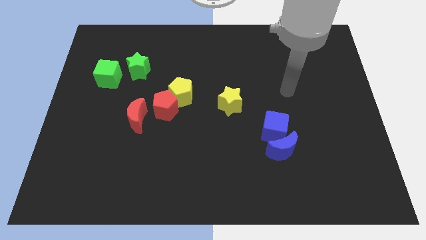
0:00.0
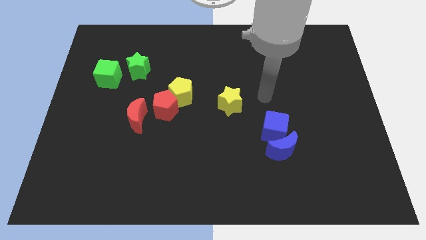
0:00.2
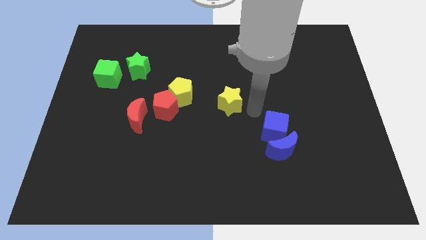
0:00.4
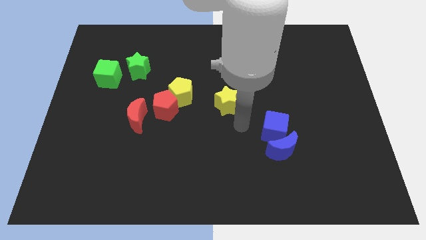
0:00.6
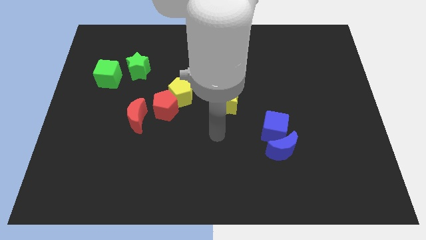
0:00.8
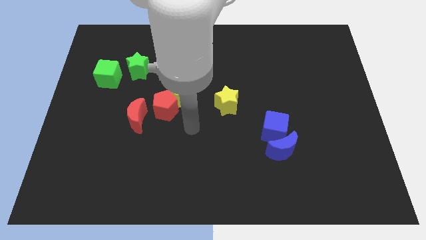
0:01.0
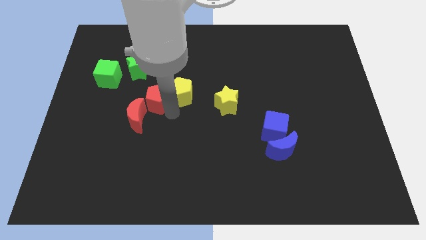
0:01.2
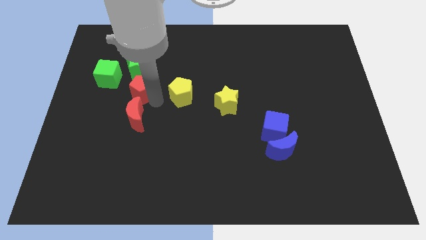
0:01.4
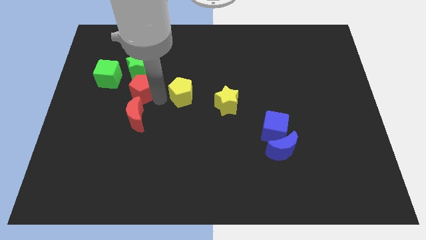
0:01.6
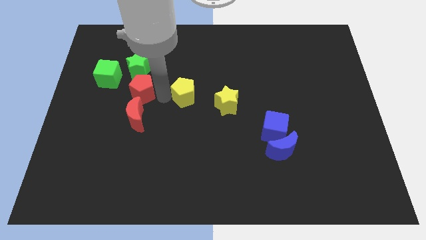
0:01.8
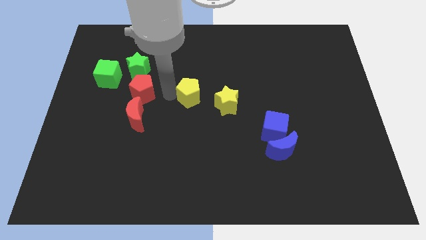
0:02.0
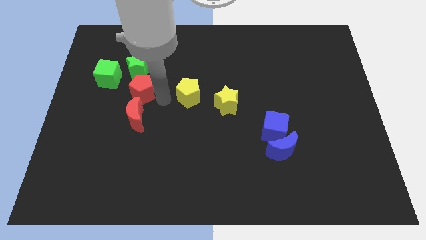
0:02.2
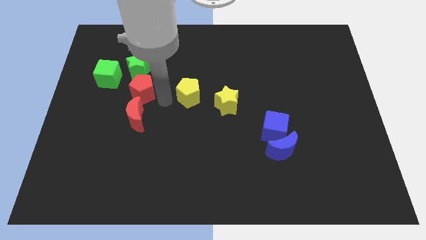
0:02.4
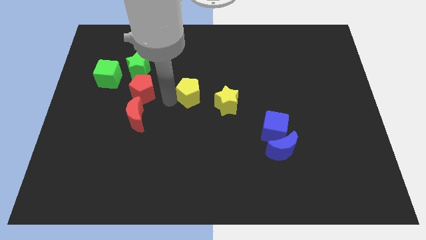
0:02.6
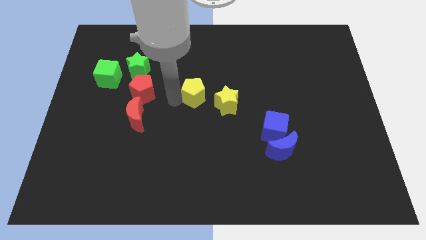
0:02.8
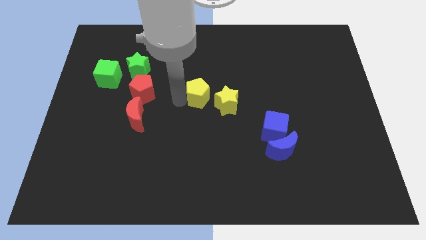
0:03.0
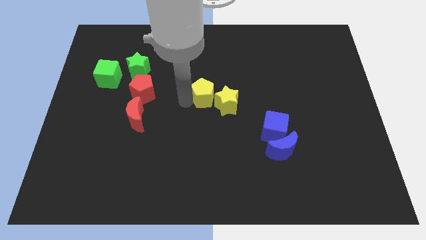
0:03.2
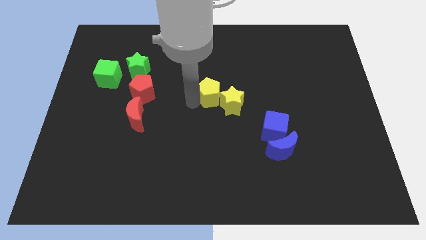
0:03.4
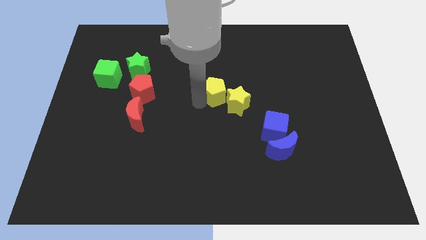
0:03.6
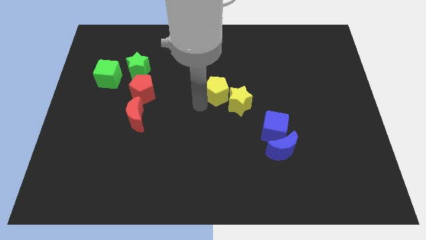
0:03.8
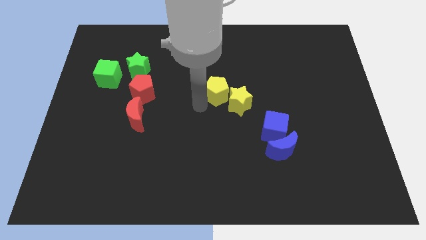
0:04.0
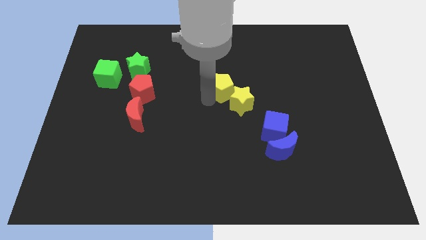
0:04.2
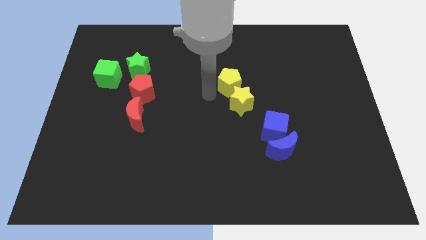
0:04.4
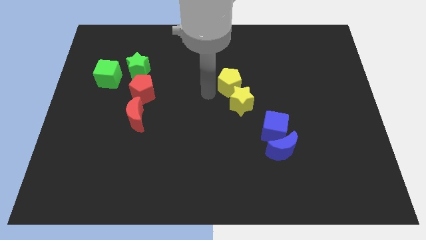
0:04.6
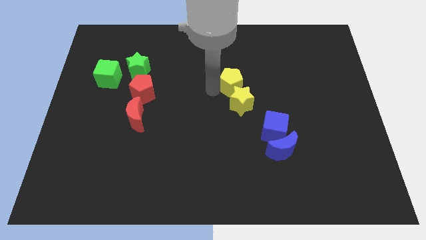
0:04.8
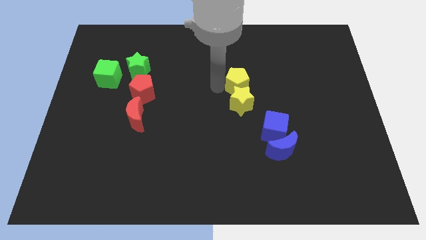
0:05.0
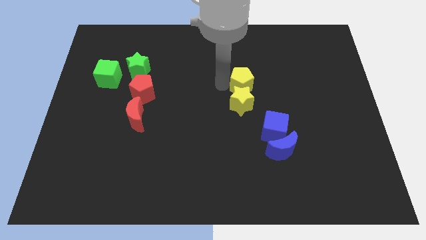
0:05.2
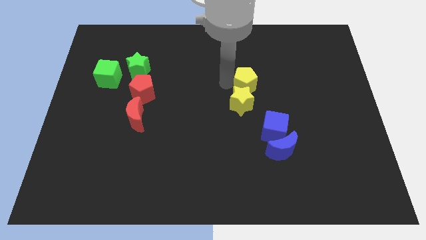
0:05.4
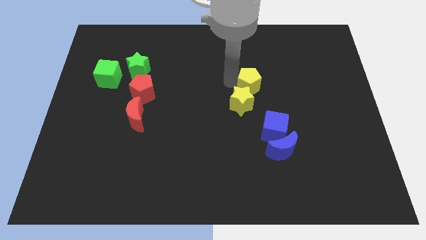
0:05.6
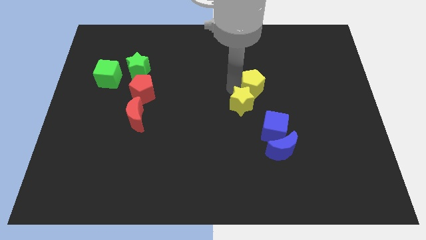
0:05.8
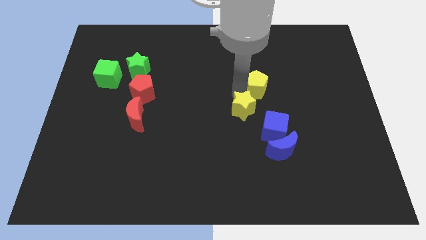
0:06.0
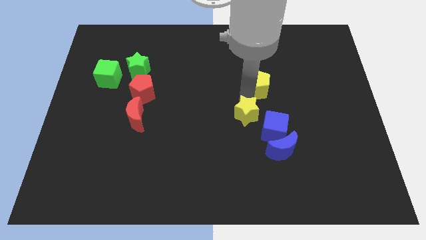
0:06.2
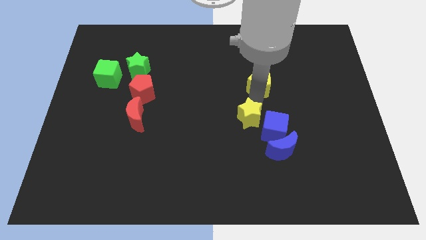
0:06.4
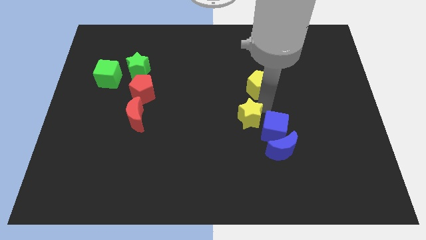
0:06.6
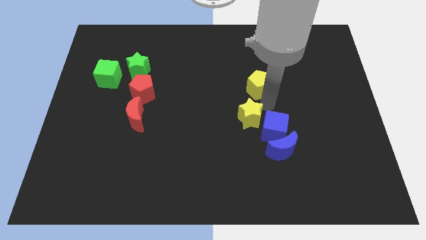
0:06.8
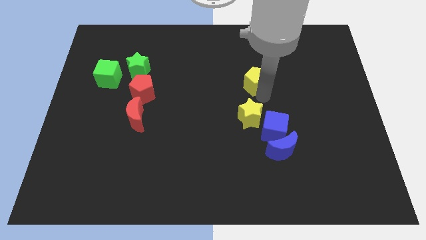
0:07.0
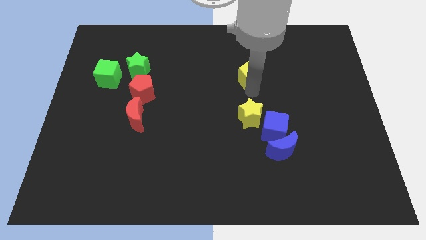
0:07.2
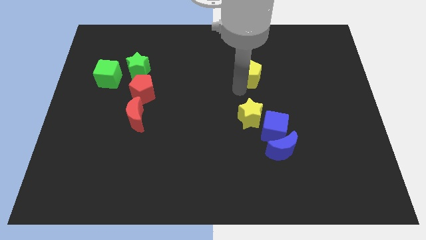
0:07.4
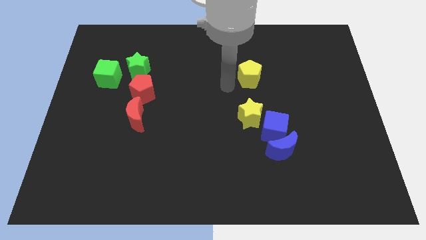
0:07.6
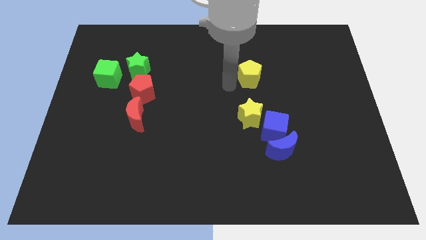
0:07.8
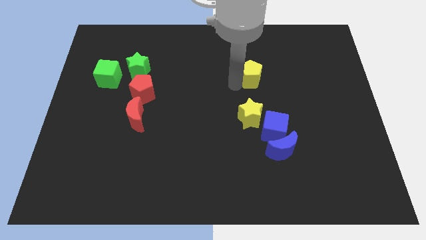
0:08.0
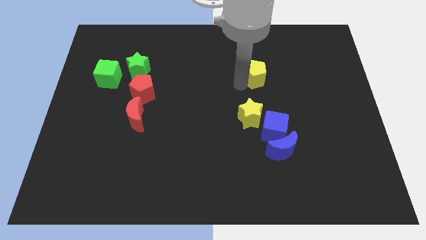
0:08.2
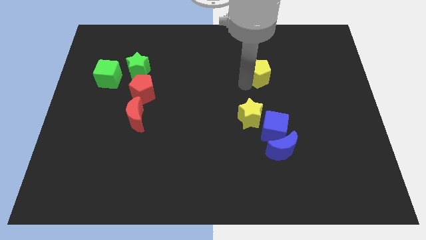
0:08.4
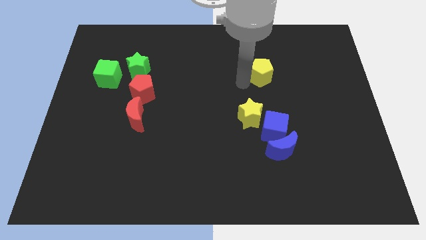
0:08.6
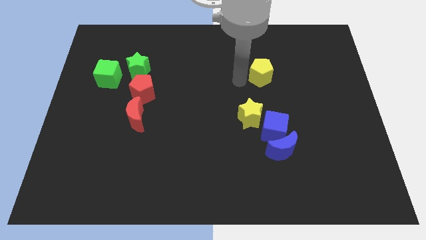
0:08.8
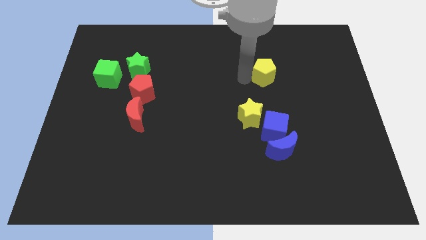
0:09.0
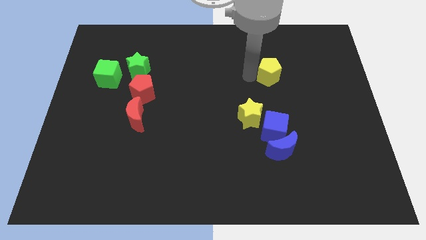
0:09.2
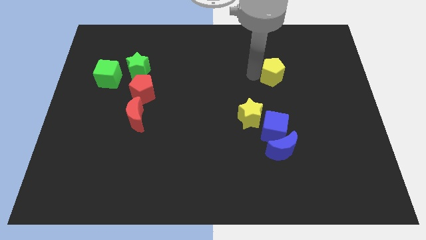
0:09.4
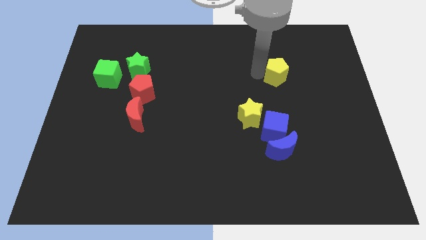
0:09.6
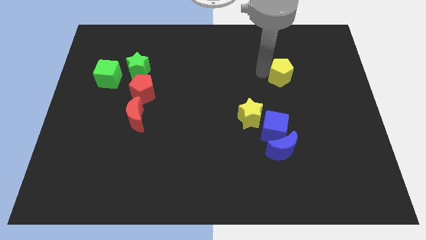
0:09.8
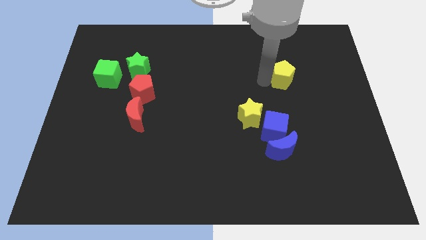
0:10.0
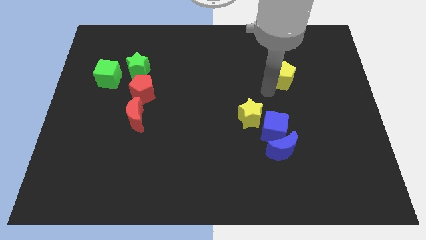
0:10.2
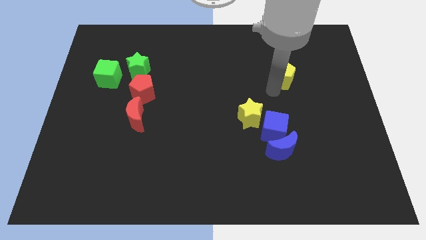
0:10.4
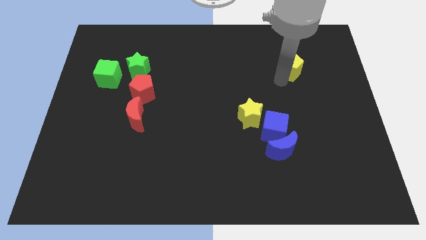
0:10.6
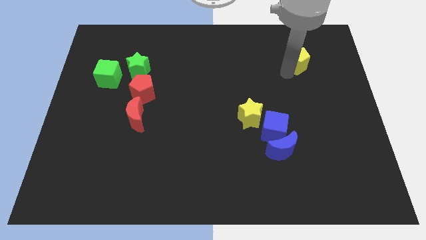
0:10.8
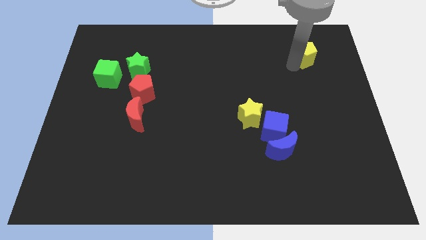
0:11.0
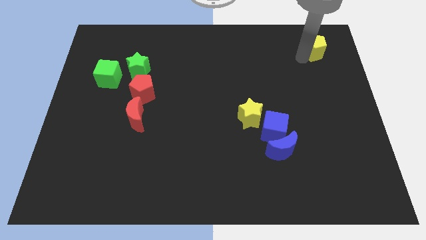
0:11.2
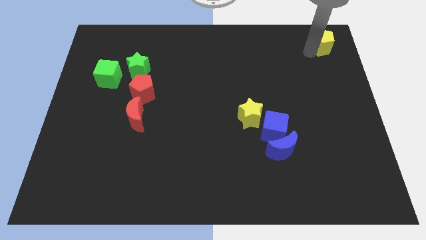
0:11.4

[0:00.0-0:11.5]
slide the yellow pentagon to the top right corner
